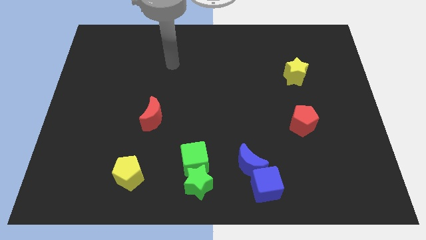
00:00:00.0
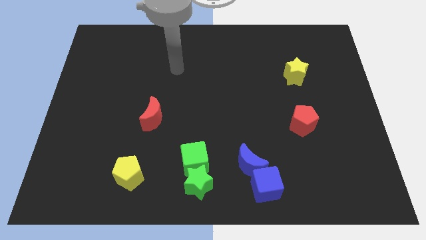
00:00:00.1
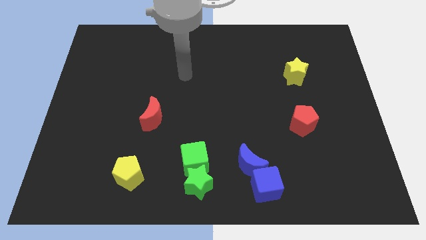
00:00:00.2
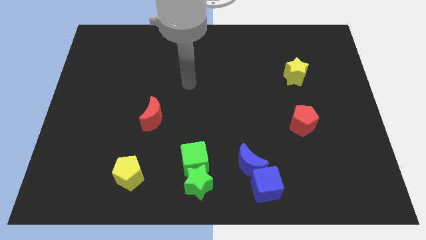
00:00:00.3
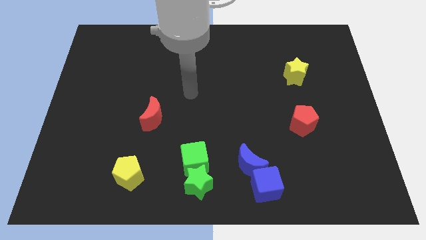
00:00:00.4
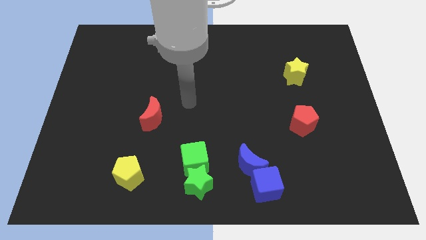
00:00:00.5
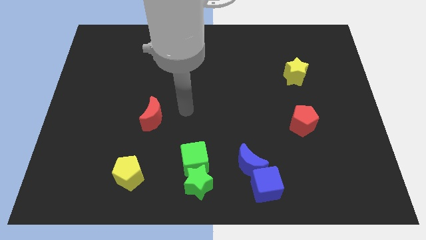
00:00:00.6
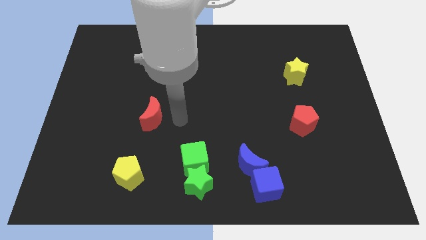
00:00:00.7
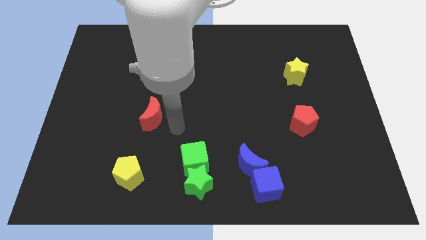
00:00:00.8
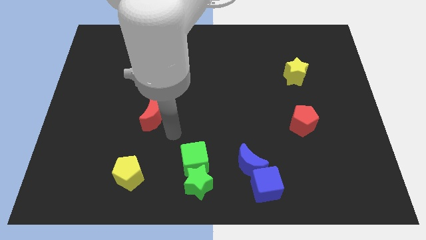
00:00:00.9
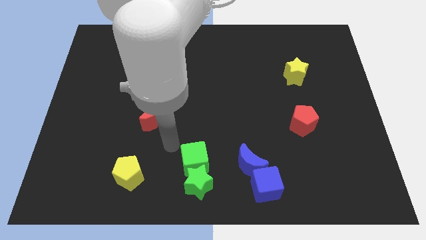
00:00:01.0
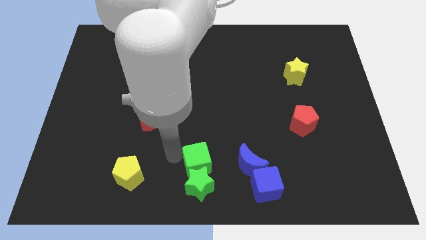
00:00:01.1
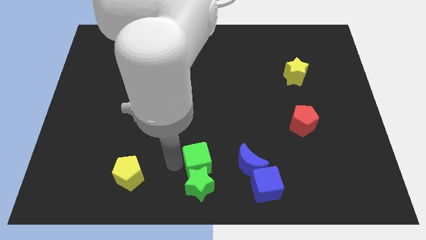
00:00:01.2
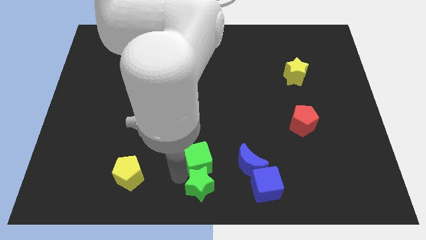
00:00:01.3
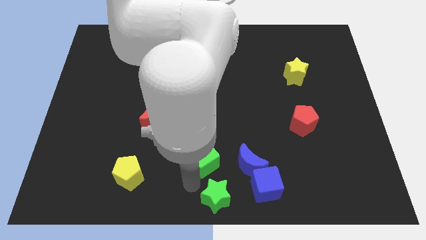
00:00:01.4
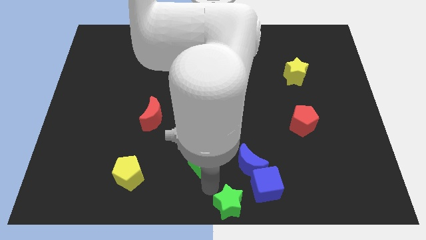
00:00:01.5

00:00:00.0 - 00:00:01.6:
pull the green cube apart from the green star

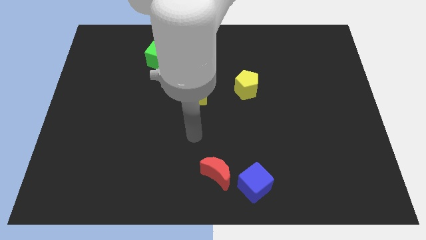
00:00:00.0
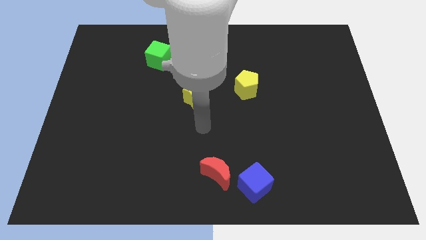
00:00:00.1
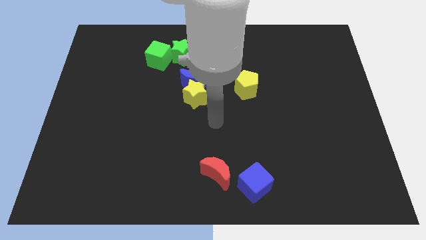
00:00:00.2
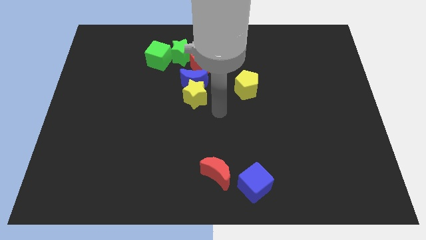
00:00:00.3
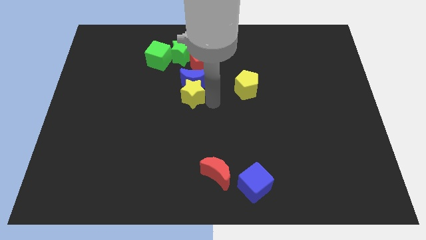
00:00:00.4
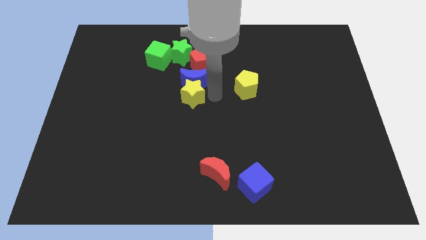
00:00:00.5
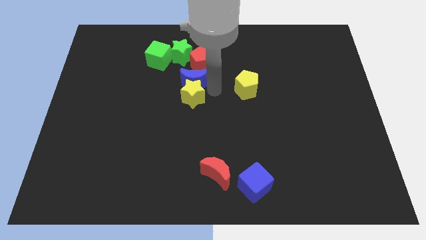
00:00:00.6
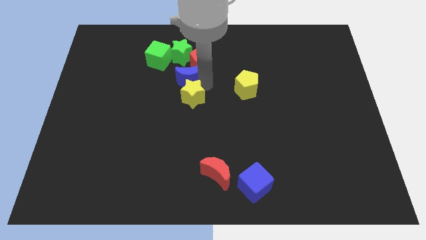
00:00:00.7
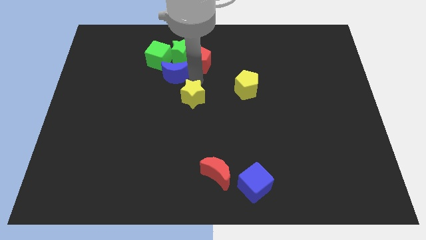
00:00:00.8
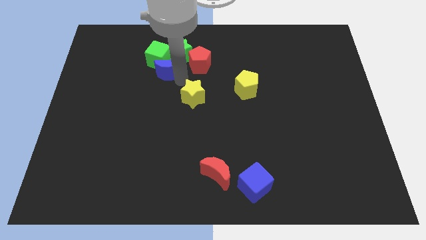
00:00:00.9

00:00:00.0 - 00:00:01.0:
move the yellow star away from the blue moon

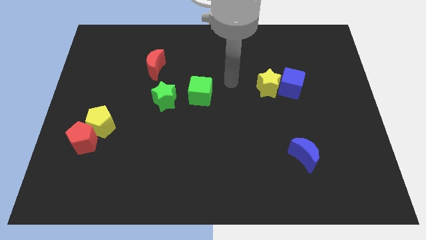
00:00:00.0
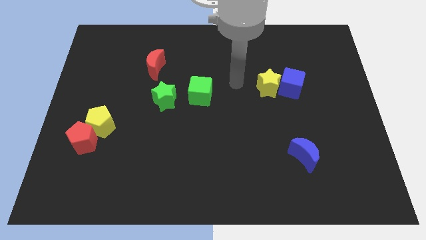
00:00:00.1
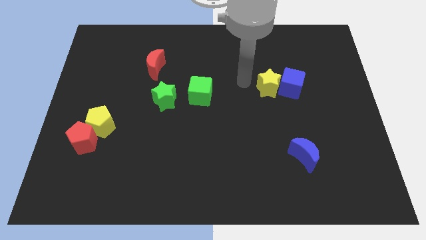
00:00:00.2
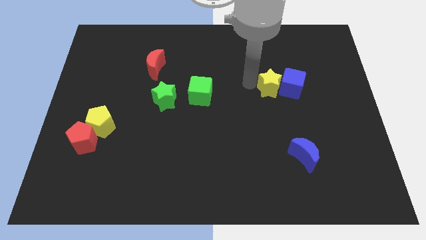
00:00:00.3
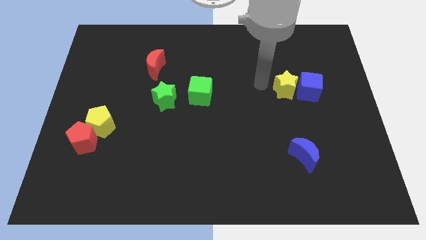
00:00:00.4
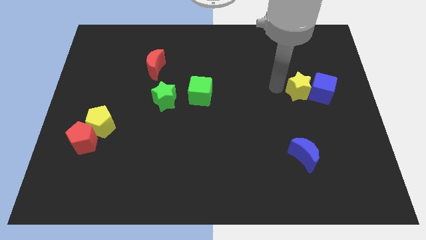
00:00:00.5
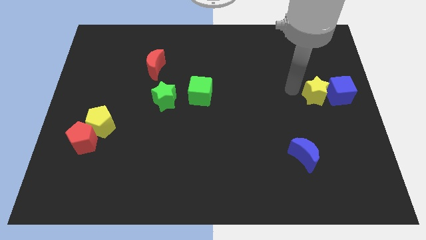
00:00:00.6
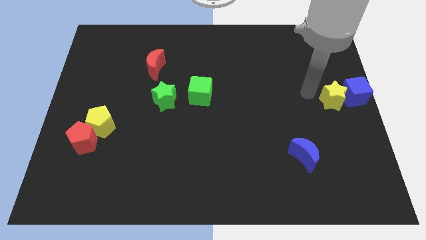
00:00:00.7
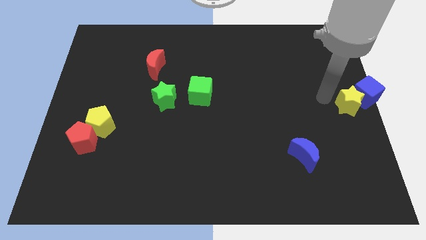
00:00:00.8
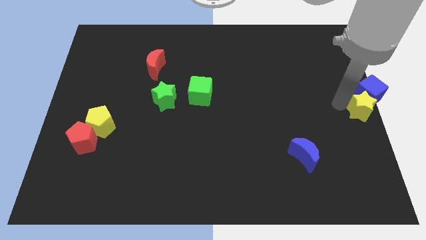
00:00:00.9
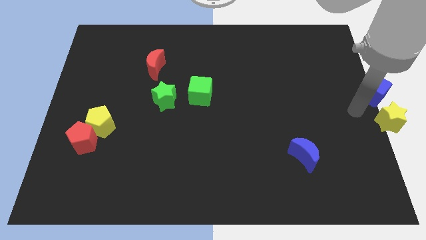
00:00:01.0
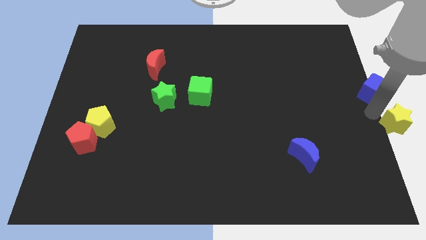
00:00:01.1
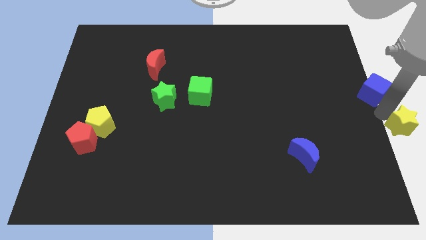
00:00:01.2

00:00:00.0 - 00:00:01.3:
move the blue cube away from the yellow star

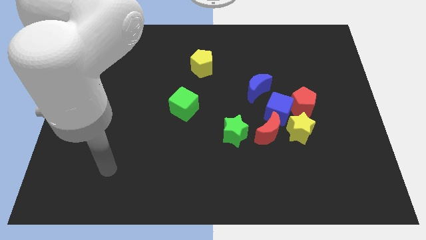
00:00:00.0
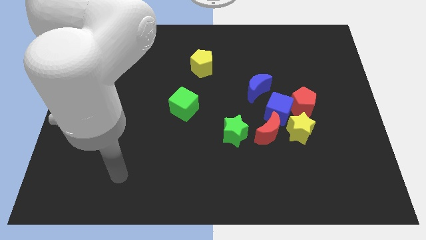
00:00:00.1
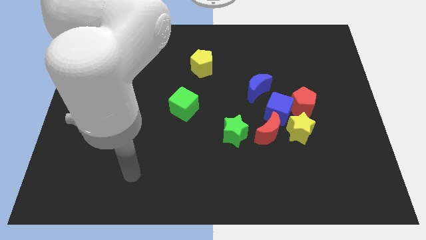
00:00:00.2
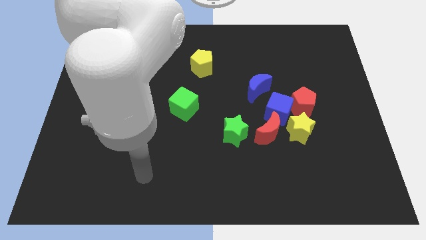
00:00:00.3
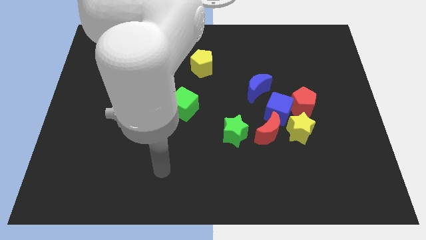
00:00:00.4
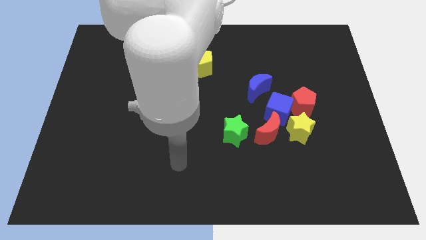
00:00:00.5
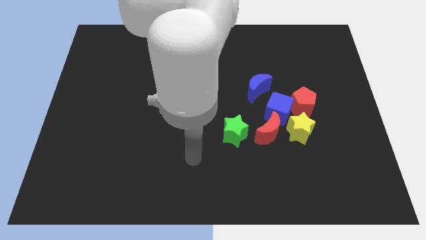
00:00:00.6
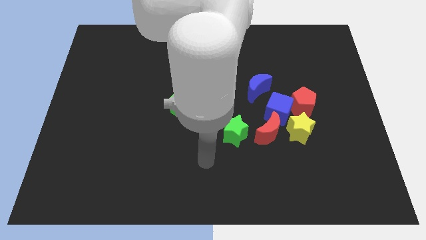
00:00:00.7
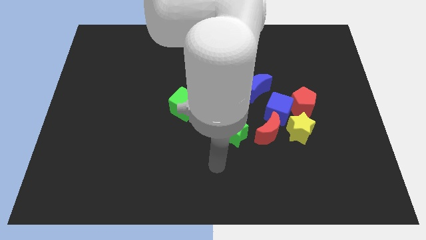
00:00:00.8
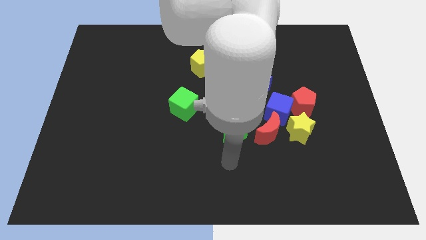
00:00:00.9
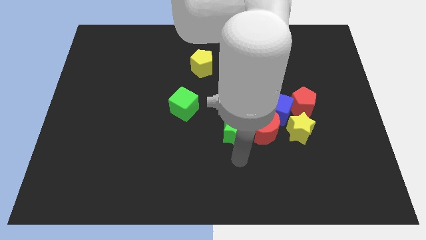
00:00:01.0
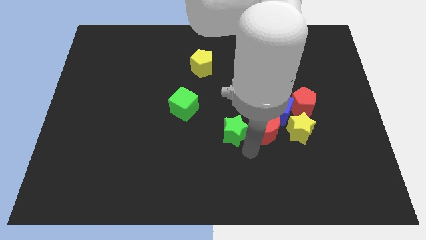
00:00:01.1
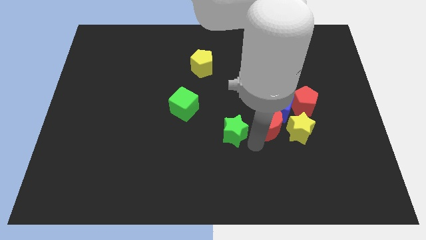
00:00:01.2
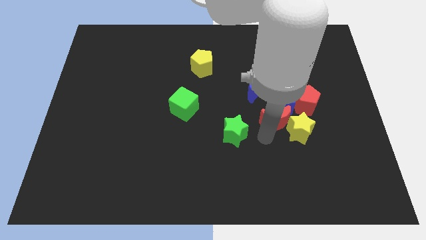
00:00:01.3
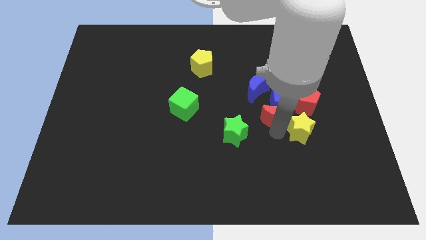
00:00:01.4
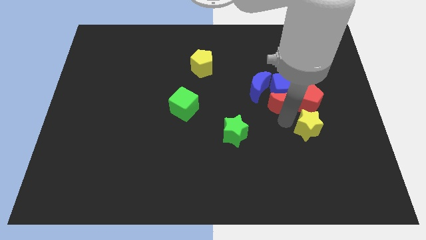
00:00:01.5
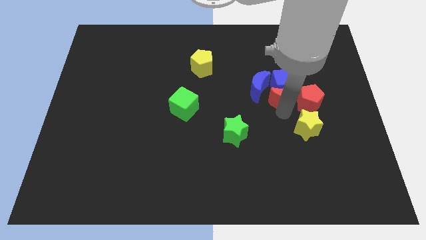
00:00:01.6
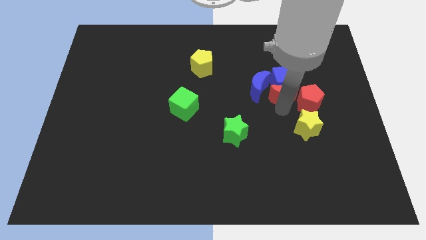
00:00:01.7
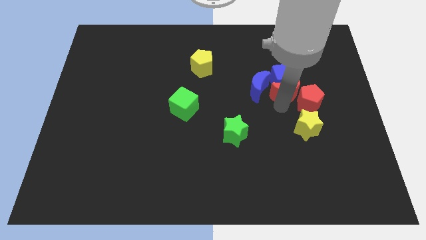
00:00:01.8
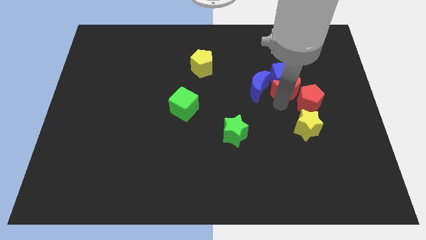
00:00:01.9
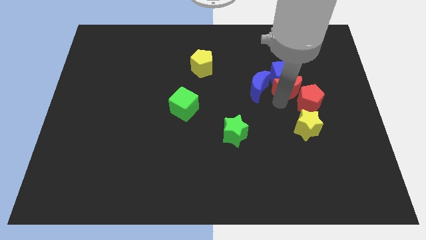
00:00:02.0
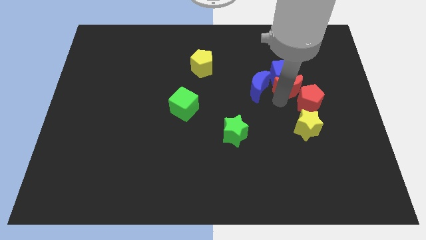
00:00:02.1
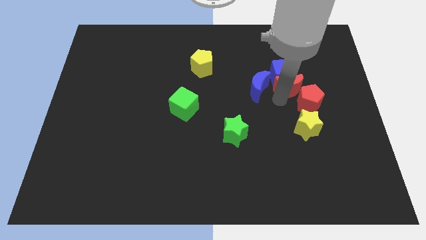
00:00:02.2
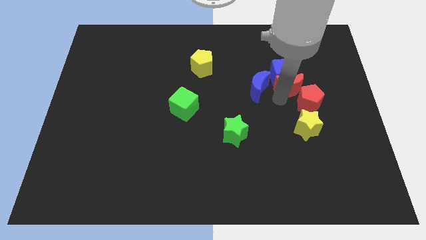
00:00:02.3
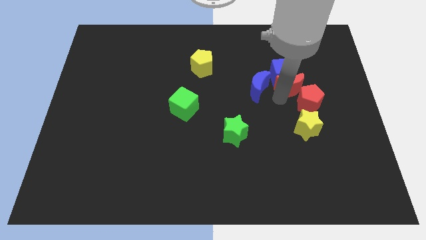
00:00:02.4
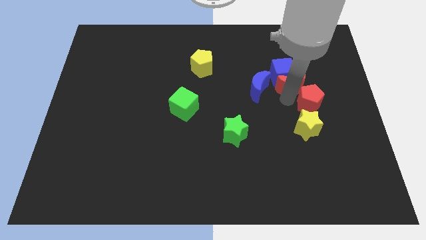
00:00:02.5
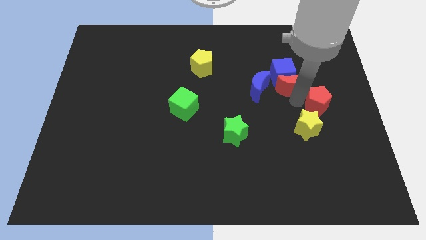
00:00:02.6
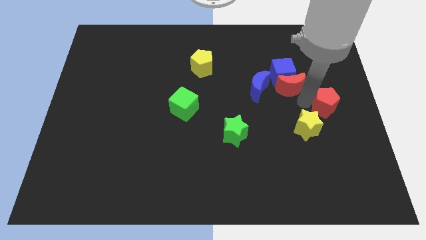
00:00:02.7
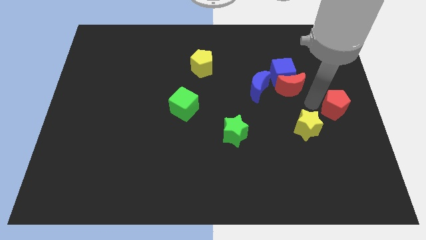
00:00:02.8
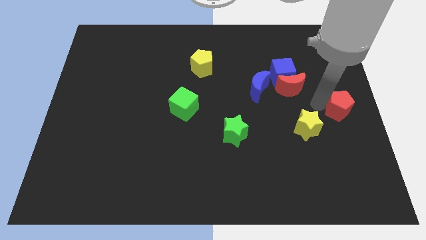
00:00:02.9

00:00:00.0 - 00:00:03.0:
move the red pentagon away from the blue cube and yellow star

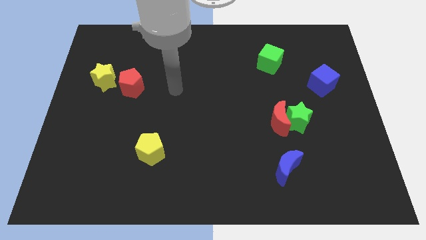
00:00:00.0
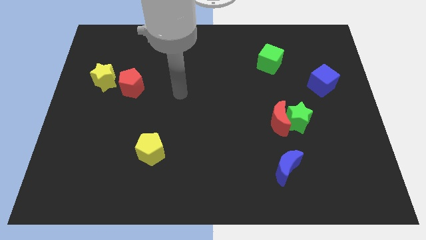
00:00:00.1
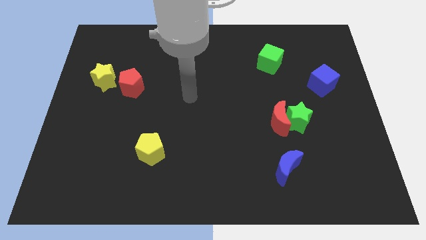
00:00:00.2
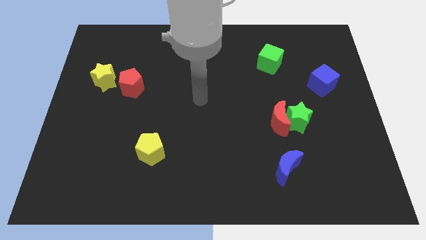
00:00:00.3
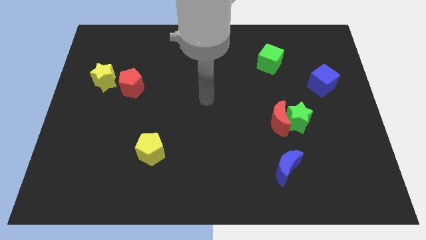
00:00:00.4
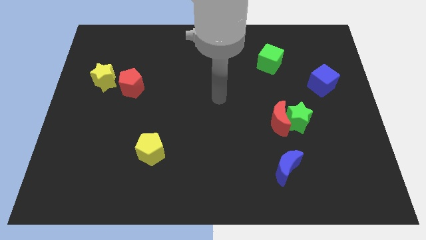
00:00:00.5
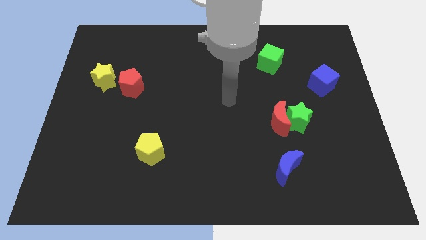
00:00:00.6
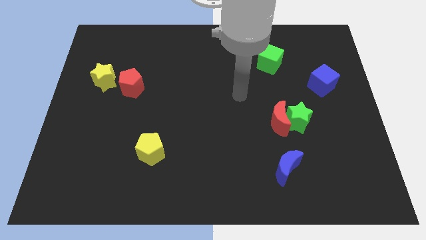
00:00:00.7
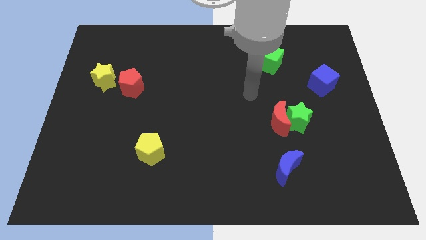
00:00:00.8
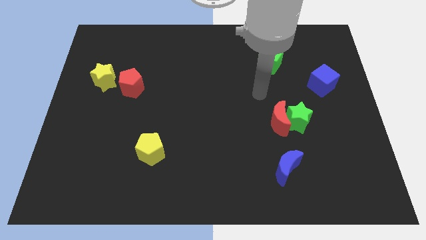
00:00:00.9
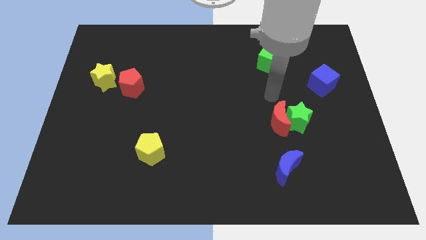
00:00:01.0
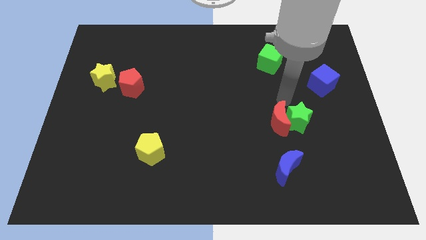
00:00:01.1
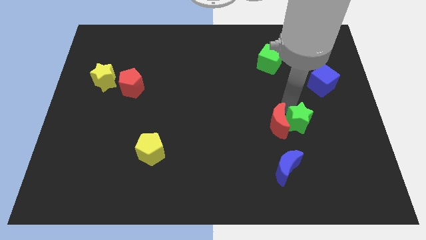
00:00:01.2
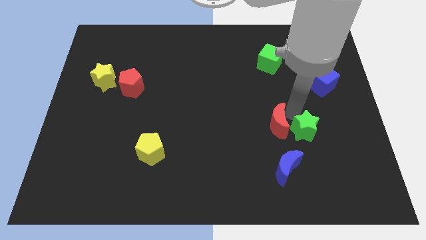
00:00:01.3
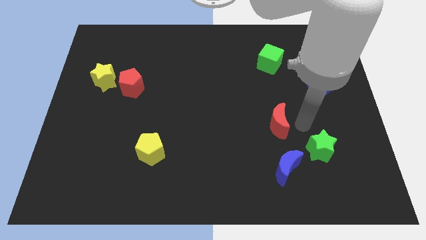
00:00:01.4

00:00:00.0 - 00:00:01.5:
pull the red moon apart from the green star

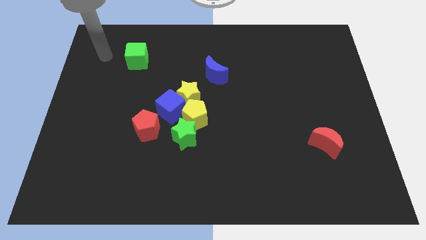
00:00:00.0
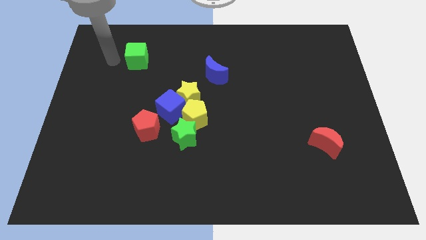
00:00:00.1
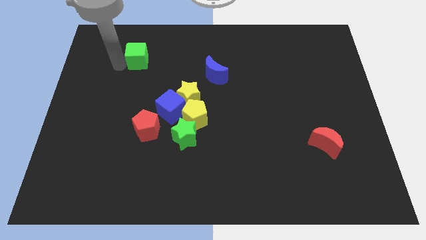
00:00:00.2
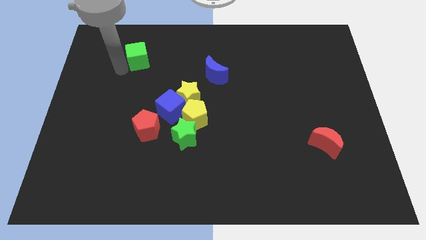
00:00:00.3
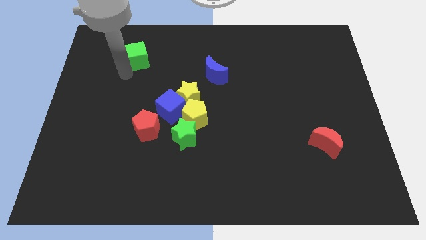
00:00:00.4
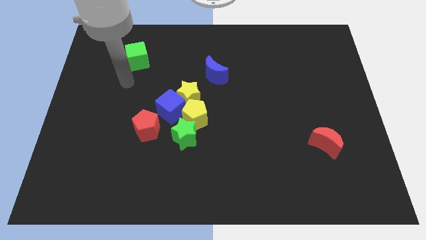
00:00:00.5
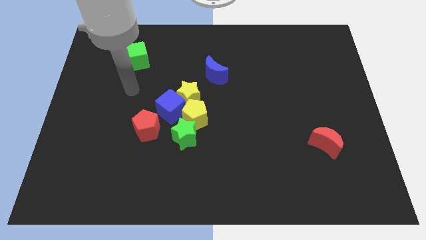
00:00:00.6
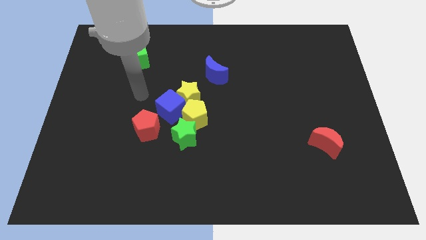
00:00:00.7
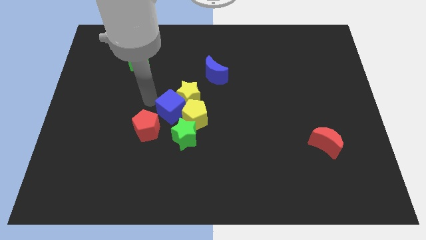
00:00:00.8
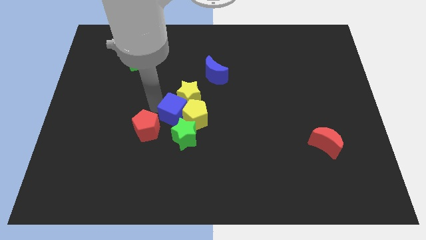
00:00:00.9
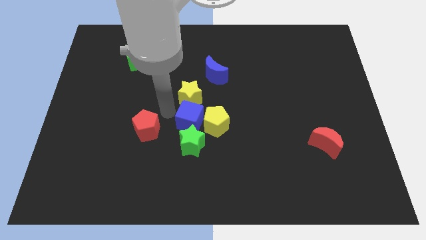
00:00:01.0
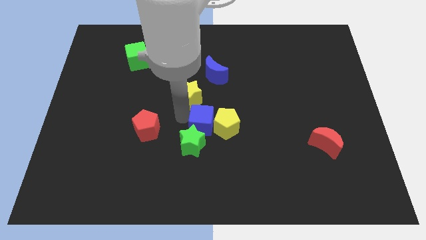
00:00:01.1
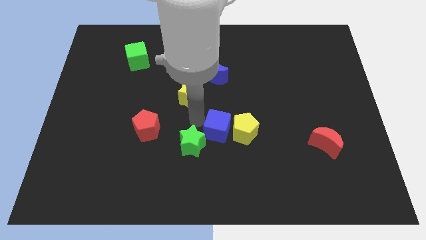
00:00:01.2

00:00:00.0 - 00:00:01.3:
move the yellow pentagon away from the group
